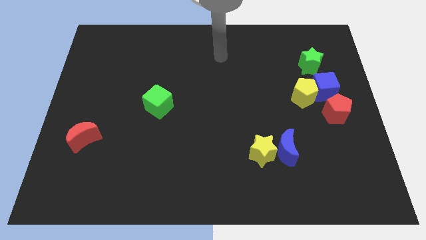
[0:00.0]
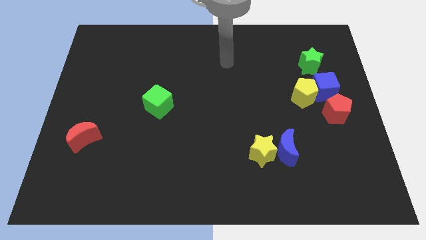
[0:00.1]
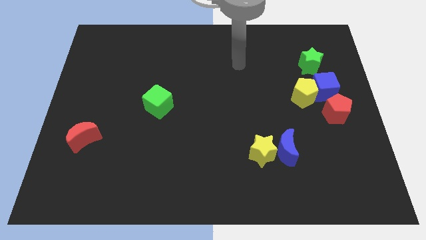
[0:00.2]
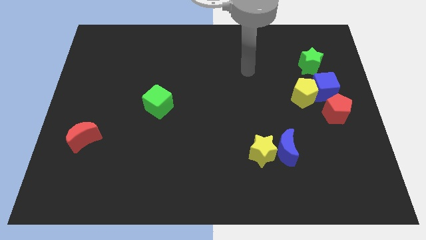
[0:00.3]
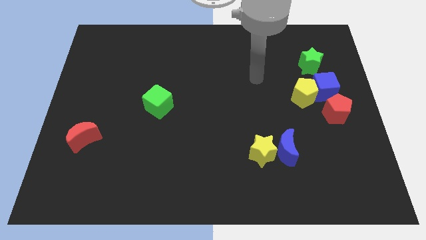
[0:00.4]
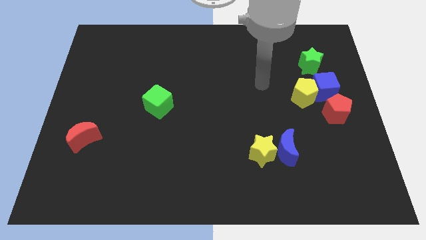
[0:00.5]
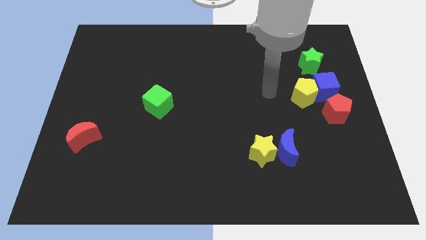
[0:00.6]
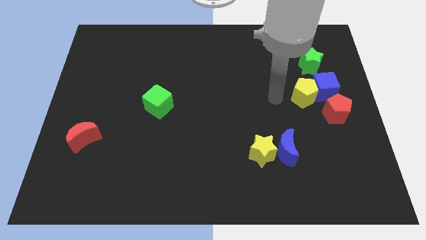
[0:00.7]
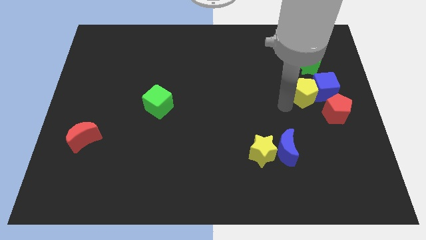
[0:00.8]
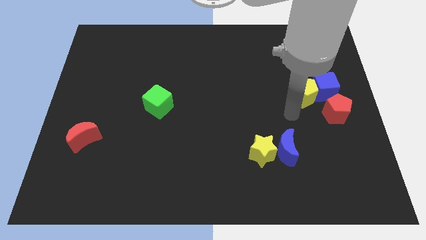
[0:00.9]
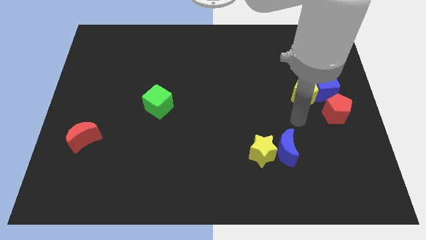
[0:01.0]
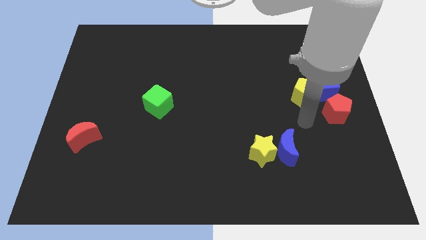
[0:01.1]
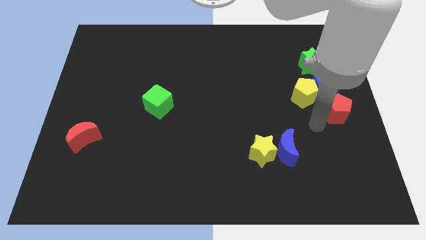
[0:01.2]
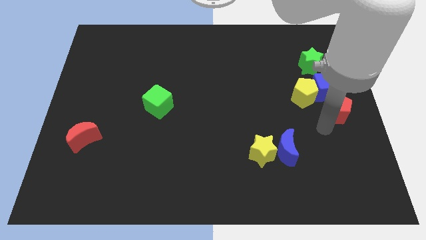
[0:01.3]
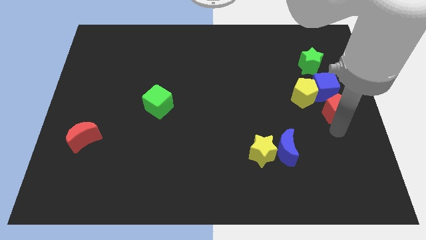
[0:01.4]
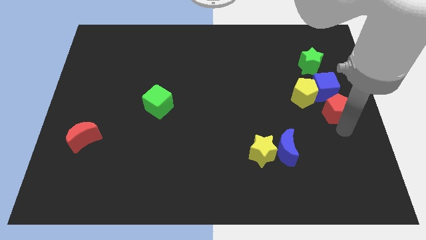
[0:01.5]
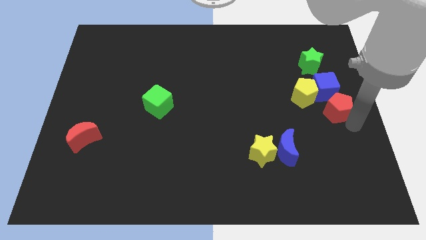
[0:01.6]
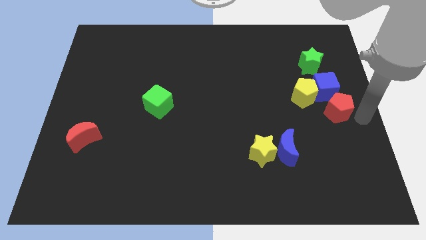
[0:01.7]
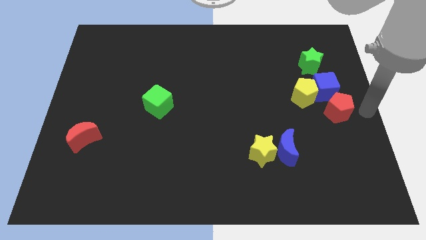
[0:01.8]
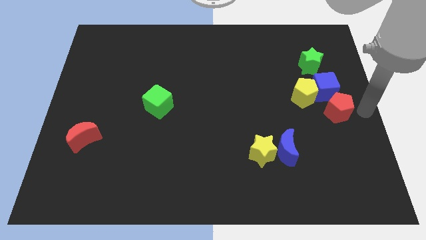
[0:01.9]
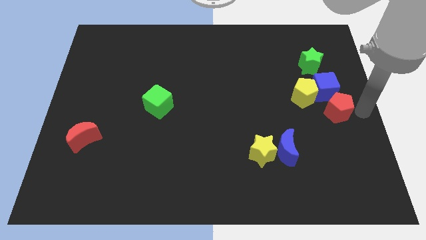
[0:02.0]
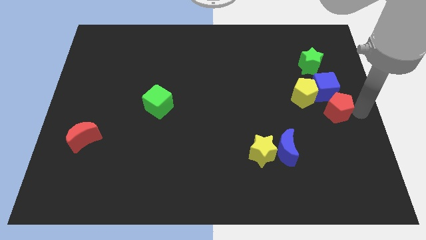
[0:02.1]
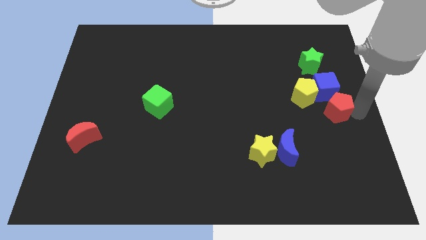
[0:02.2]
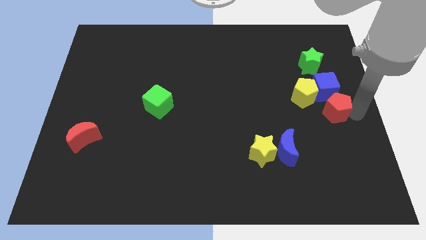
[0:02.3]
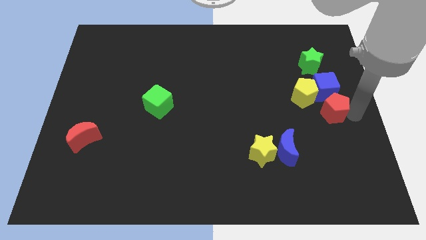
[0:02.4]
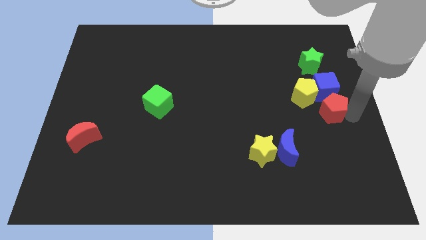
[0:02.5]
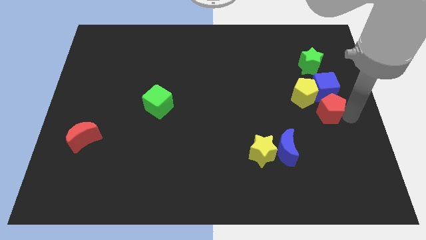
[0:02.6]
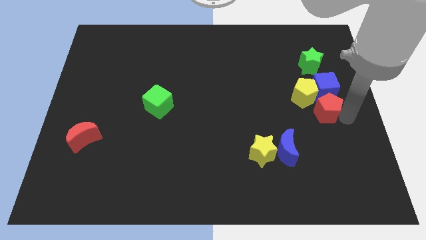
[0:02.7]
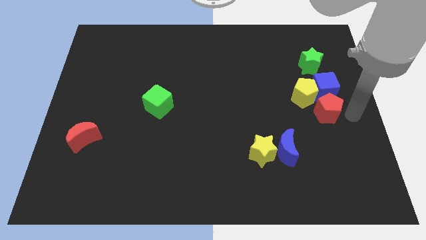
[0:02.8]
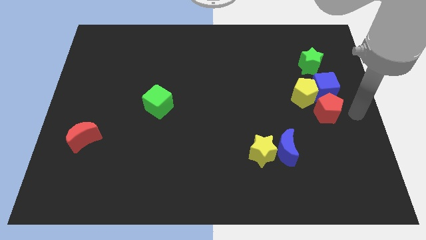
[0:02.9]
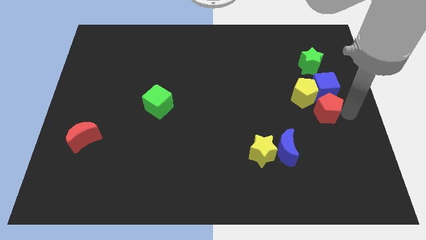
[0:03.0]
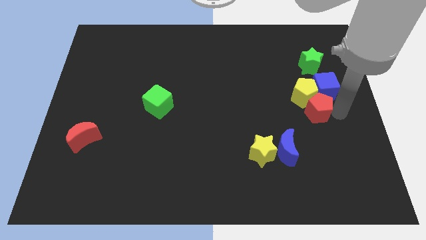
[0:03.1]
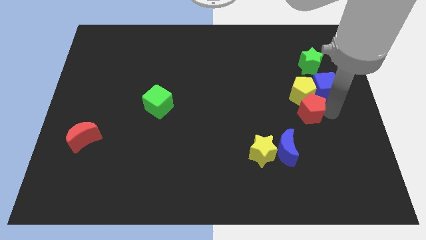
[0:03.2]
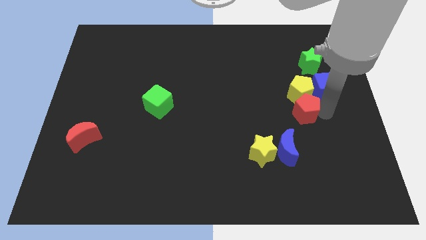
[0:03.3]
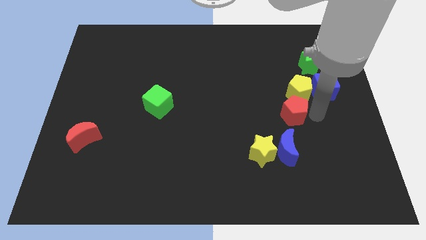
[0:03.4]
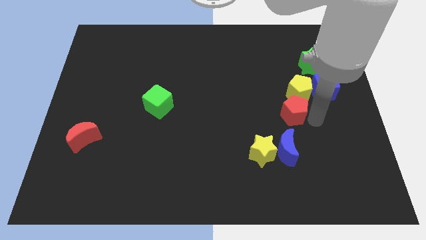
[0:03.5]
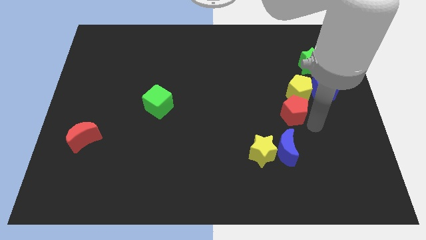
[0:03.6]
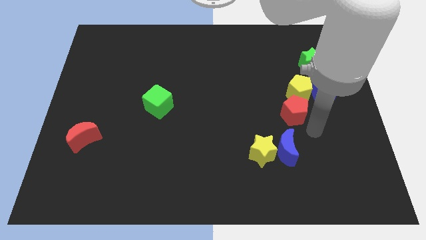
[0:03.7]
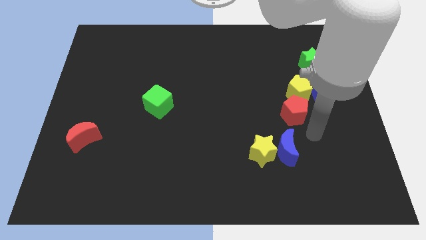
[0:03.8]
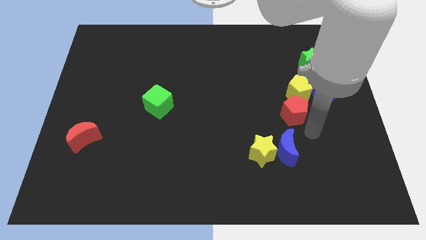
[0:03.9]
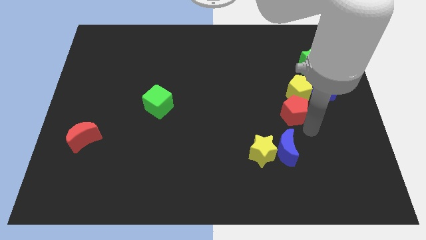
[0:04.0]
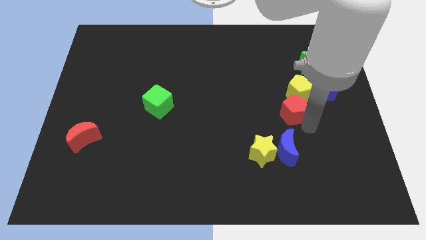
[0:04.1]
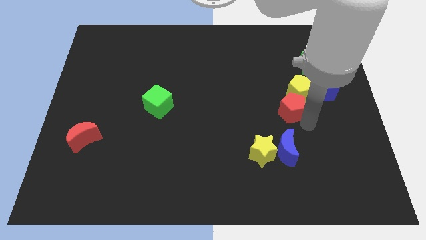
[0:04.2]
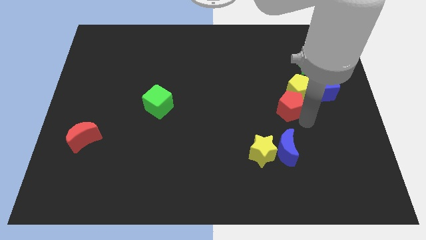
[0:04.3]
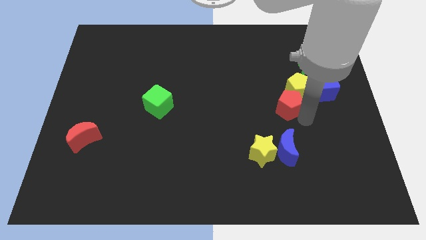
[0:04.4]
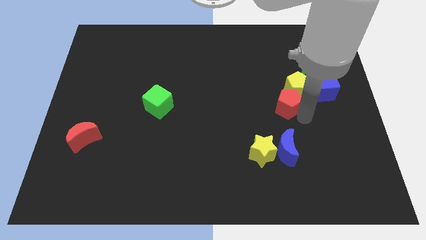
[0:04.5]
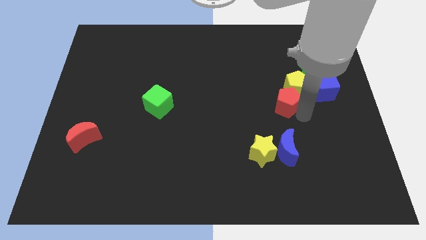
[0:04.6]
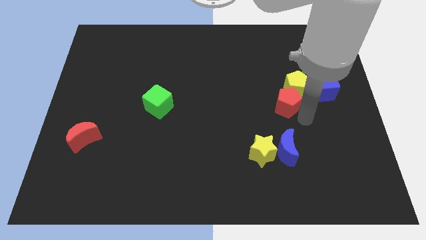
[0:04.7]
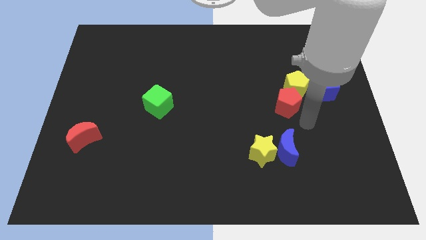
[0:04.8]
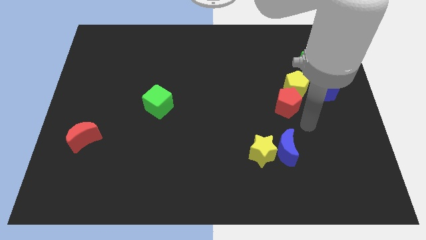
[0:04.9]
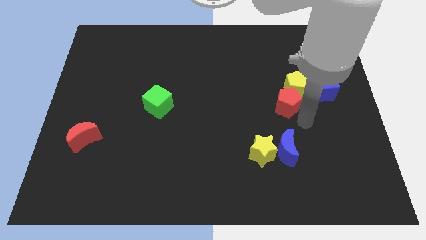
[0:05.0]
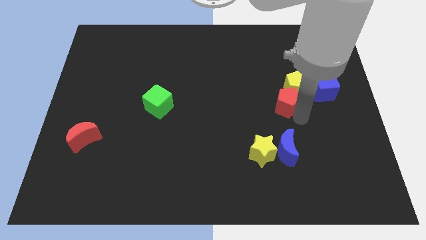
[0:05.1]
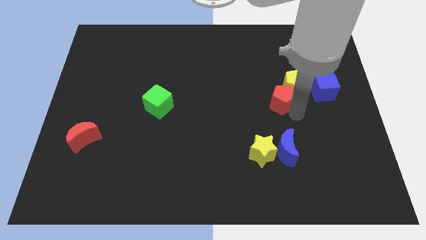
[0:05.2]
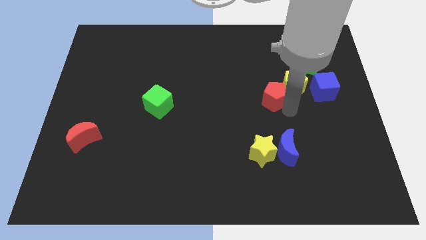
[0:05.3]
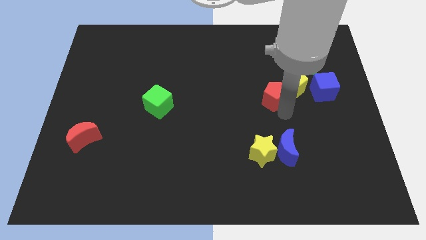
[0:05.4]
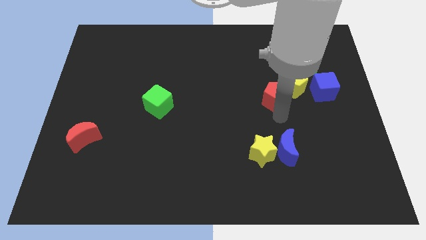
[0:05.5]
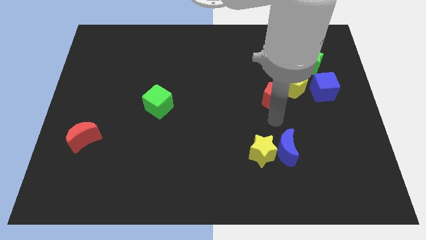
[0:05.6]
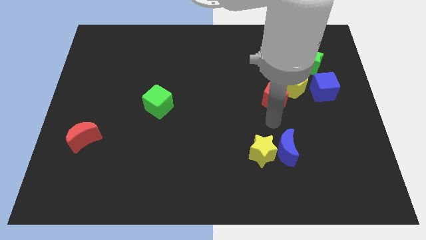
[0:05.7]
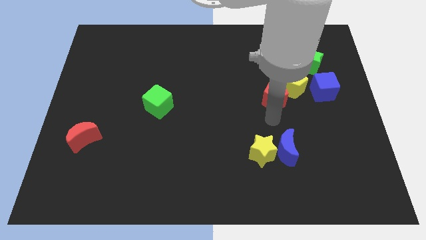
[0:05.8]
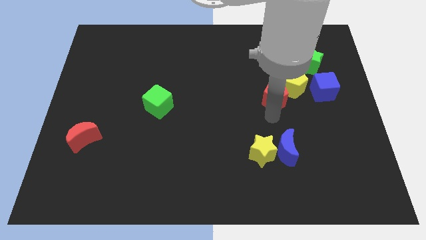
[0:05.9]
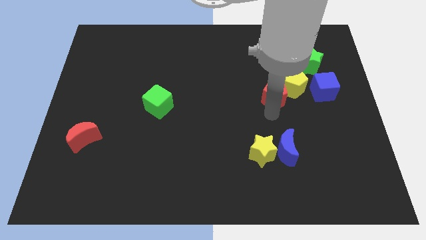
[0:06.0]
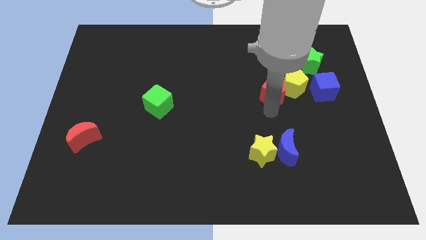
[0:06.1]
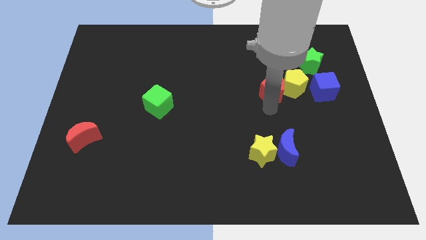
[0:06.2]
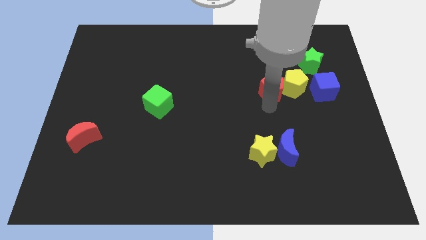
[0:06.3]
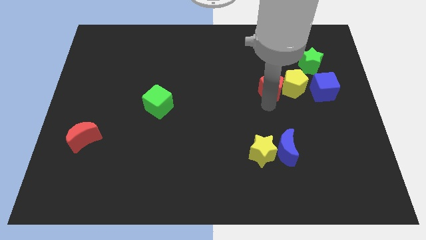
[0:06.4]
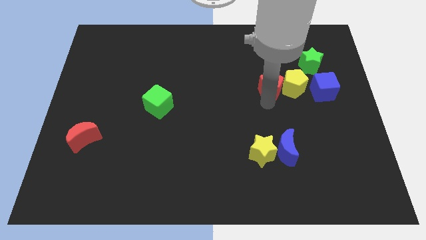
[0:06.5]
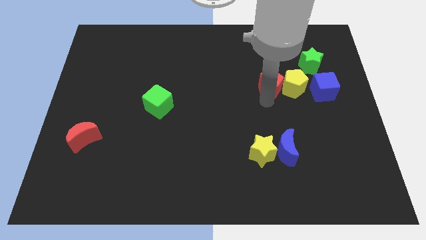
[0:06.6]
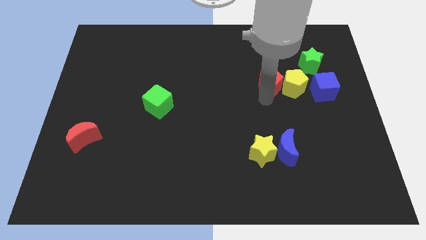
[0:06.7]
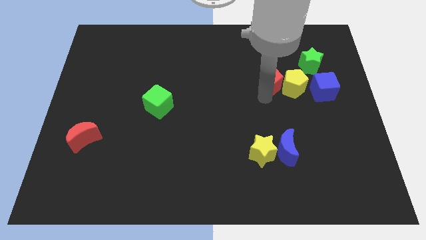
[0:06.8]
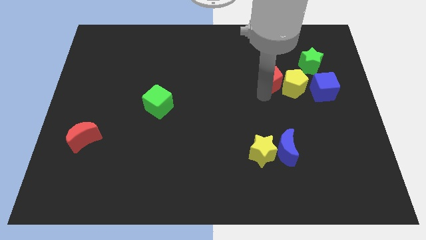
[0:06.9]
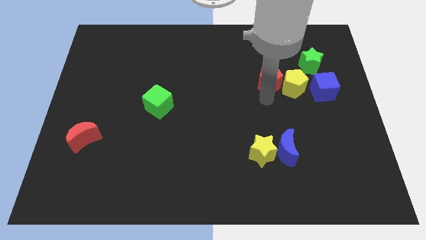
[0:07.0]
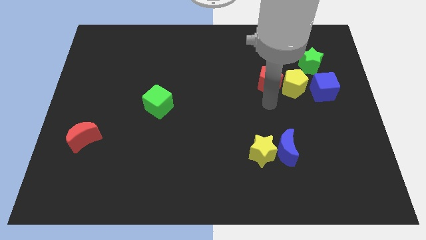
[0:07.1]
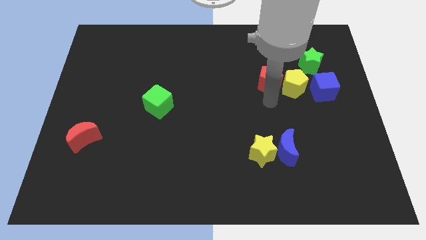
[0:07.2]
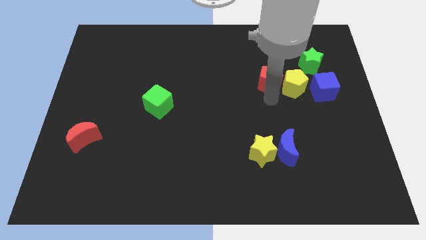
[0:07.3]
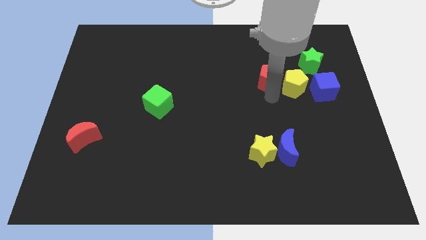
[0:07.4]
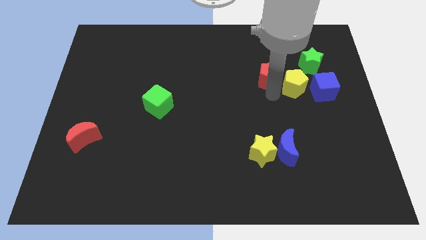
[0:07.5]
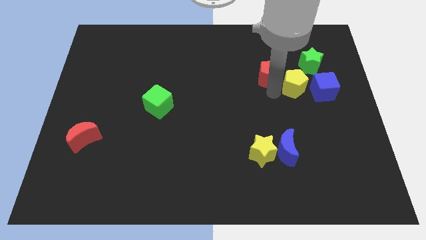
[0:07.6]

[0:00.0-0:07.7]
slide the red pentagon to the left of the green star
